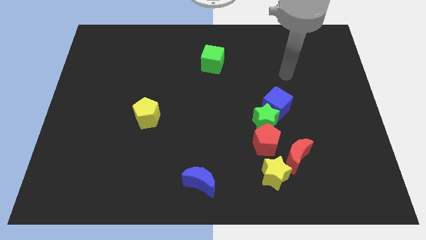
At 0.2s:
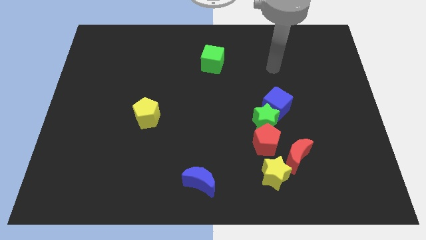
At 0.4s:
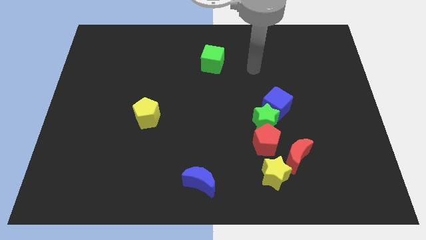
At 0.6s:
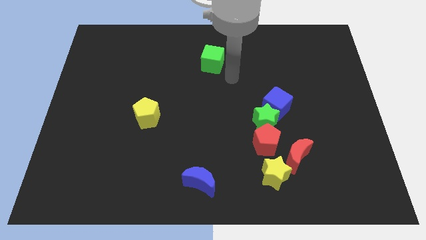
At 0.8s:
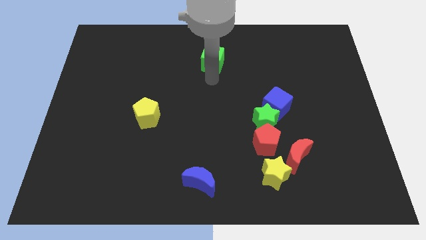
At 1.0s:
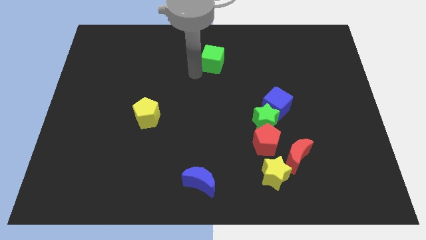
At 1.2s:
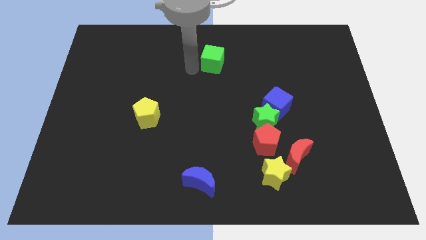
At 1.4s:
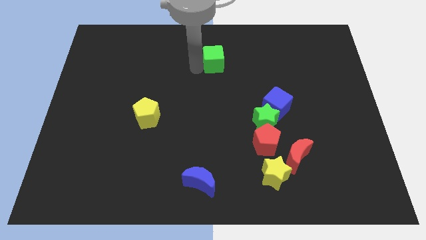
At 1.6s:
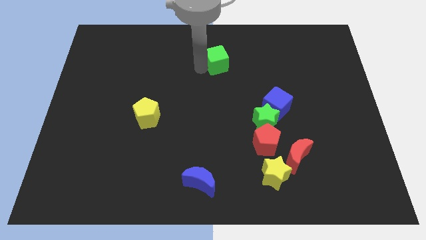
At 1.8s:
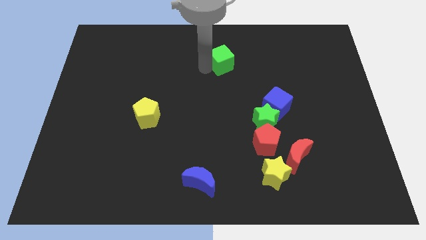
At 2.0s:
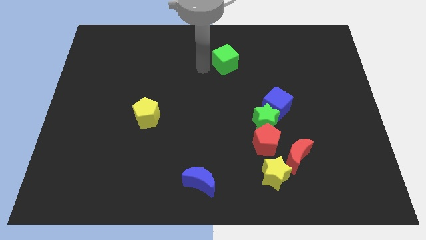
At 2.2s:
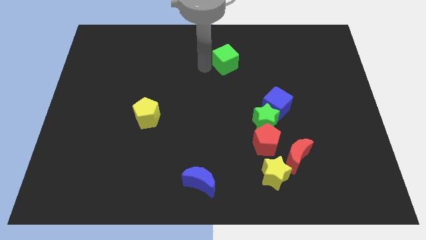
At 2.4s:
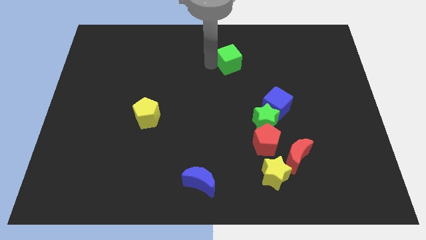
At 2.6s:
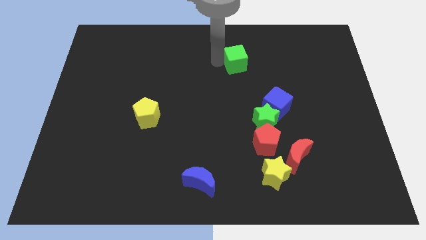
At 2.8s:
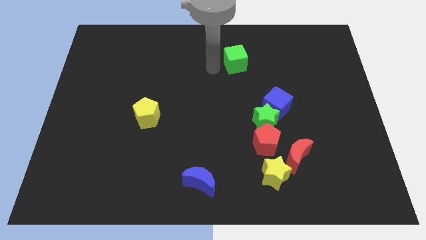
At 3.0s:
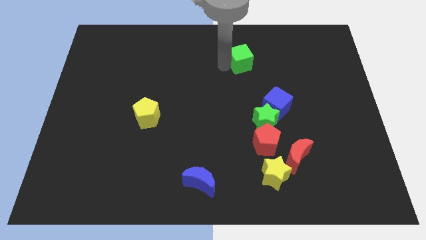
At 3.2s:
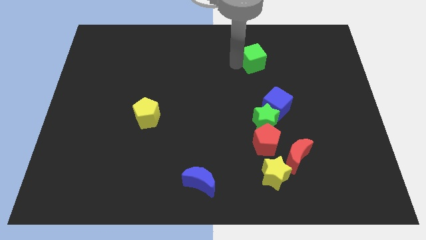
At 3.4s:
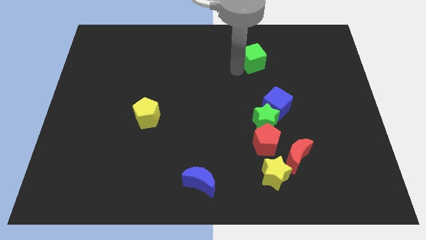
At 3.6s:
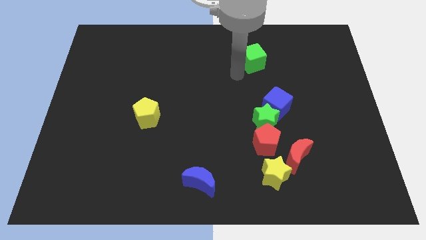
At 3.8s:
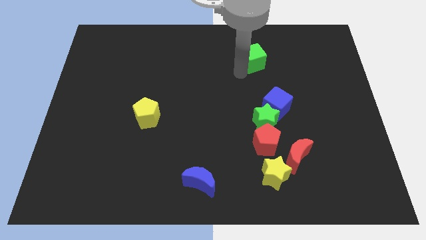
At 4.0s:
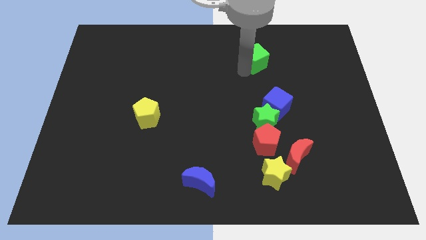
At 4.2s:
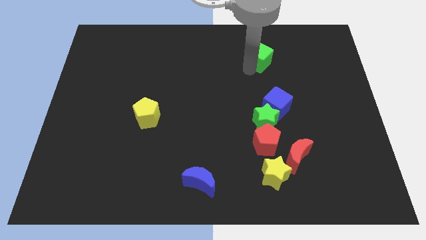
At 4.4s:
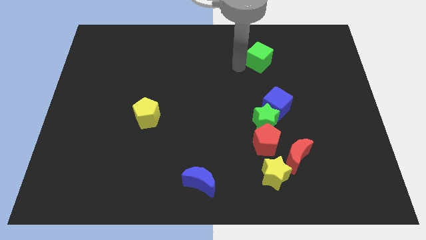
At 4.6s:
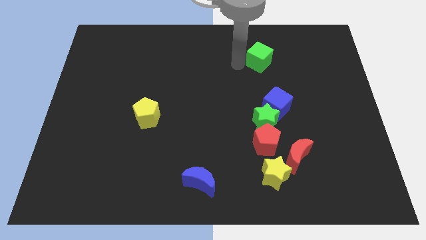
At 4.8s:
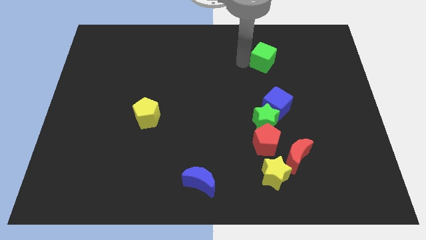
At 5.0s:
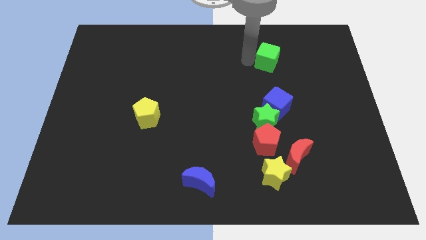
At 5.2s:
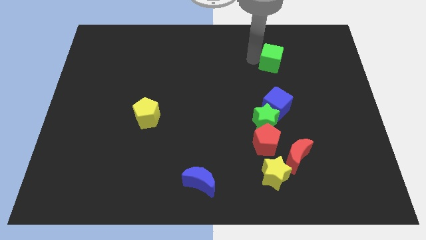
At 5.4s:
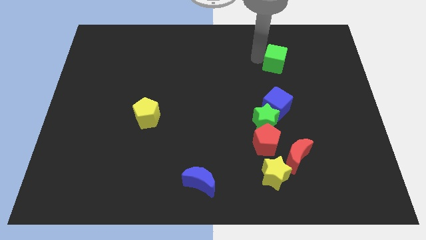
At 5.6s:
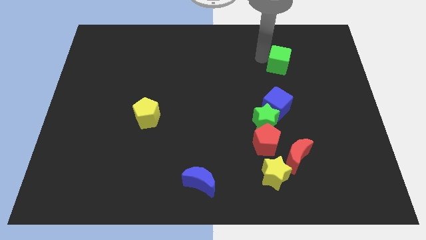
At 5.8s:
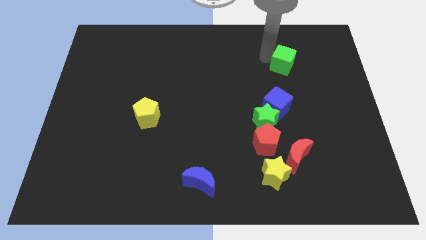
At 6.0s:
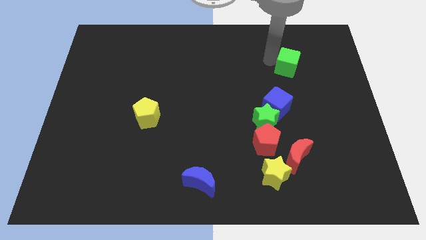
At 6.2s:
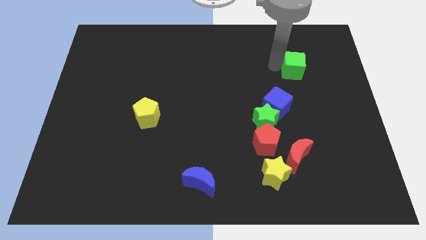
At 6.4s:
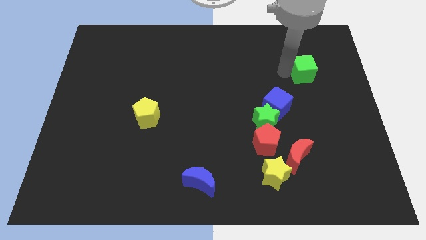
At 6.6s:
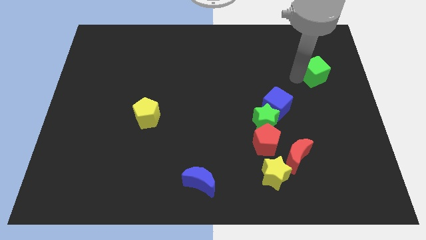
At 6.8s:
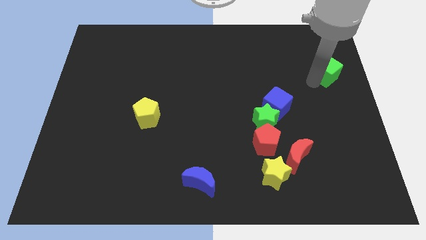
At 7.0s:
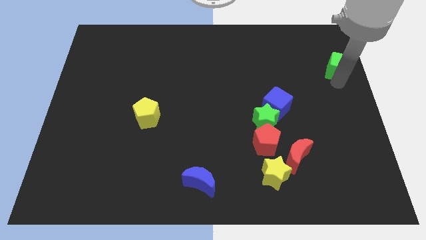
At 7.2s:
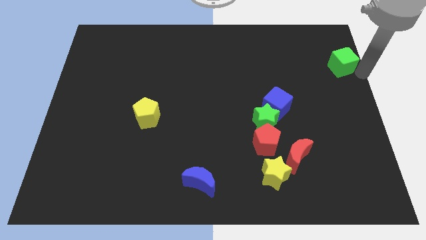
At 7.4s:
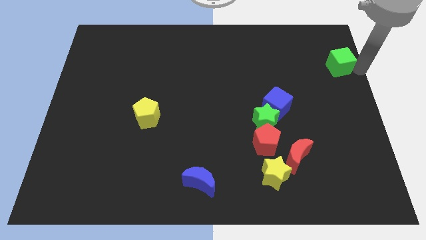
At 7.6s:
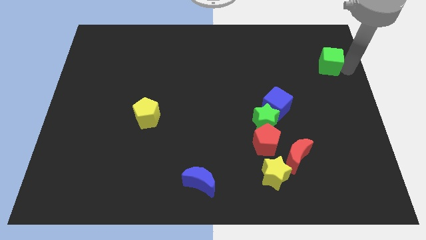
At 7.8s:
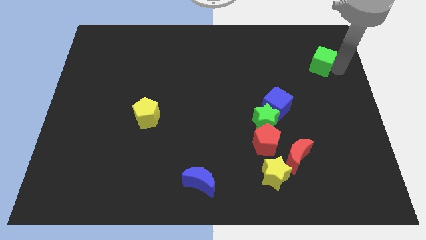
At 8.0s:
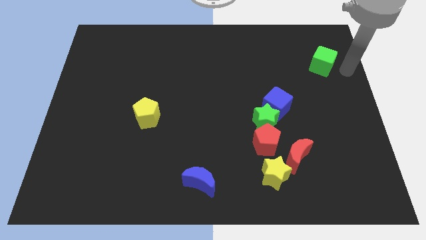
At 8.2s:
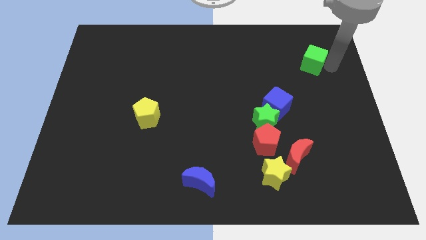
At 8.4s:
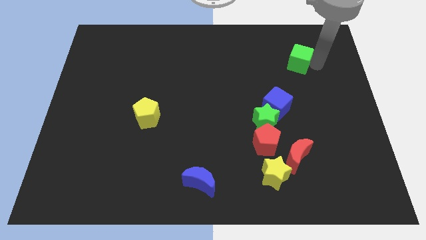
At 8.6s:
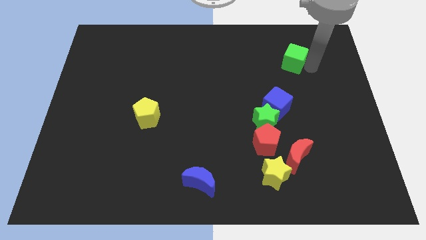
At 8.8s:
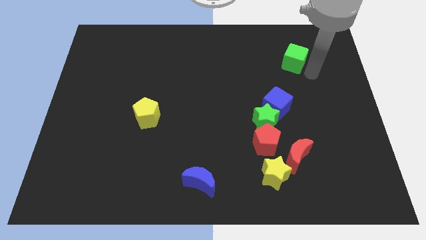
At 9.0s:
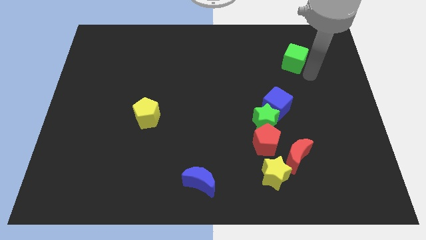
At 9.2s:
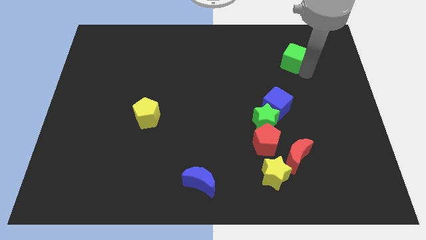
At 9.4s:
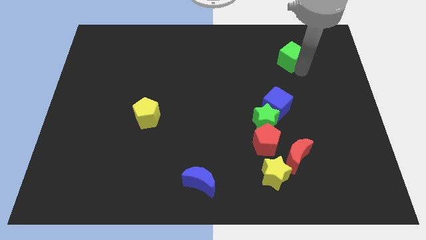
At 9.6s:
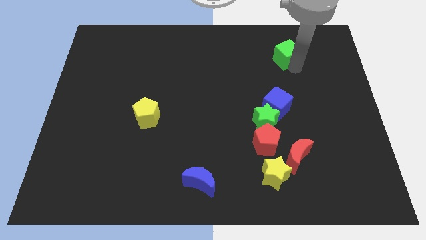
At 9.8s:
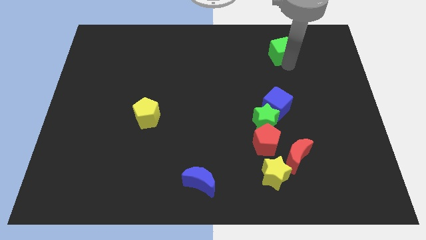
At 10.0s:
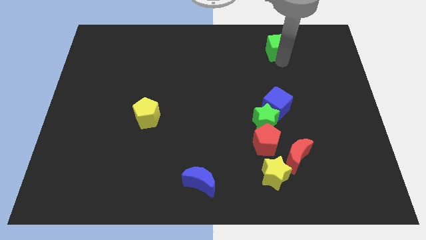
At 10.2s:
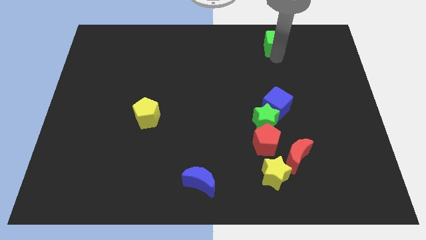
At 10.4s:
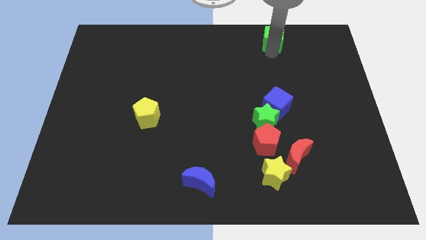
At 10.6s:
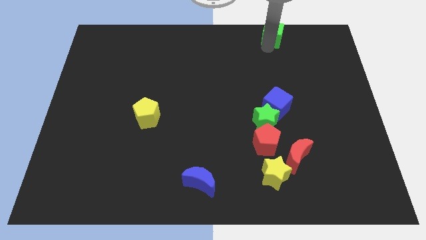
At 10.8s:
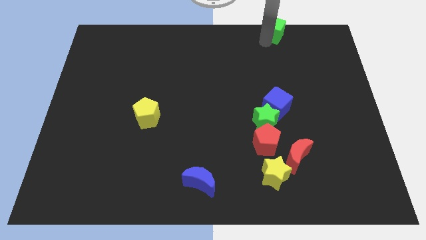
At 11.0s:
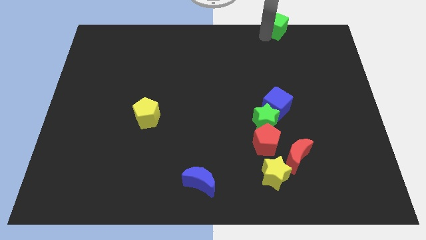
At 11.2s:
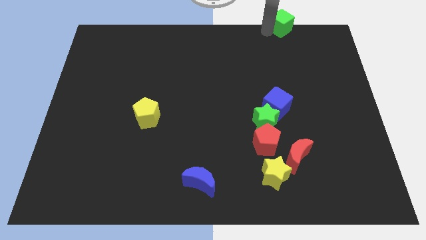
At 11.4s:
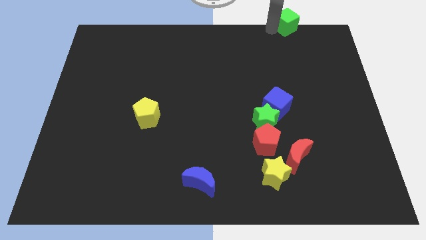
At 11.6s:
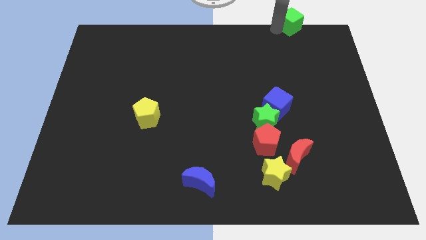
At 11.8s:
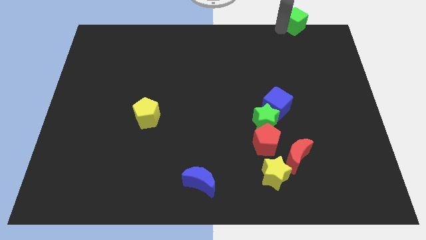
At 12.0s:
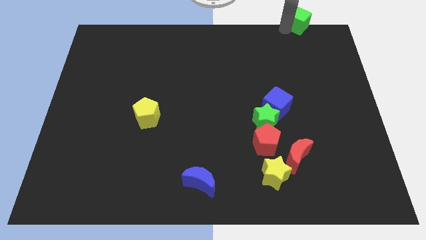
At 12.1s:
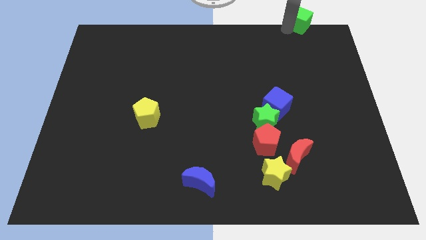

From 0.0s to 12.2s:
slide the green cube to the top right

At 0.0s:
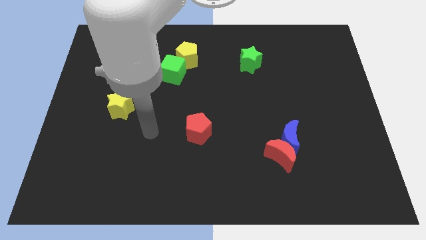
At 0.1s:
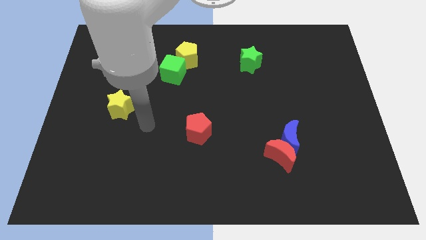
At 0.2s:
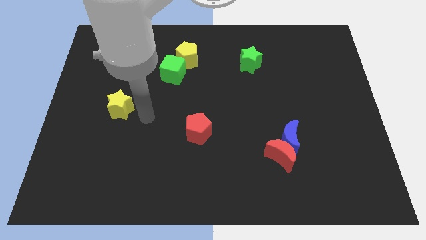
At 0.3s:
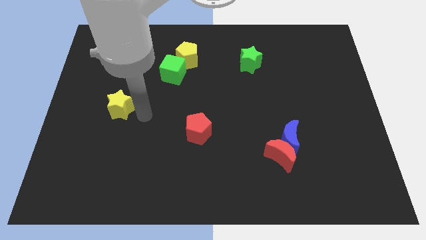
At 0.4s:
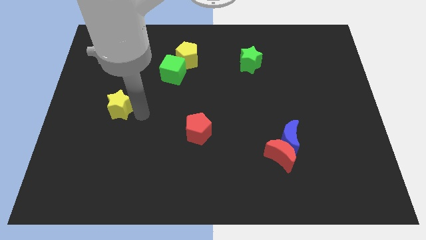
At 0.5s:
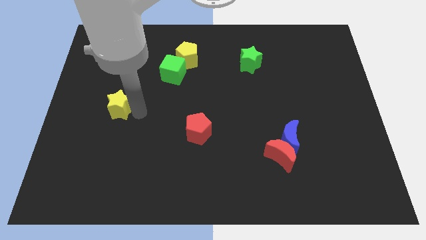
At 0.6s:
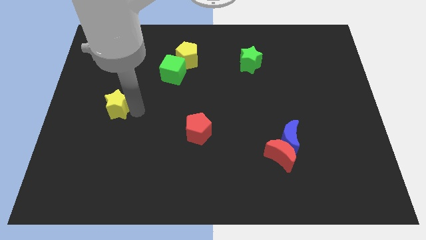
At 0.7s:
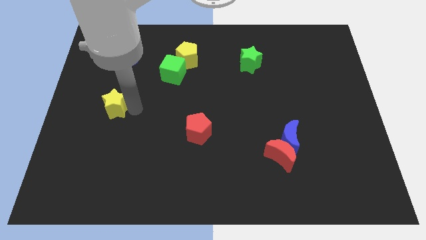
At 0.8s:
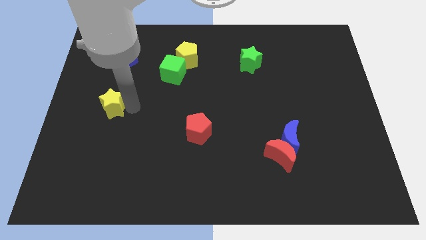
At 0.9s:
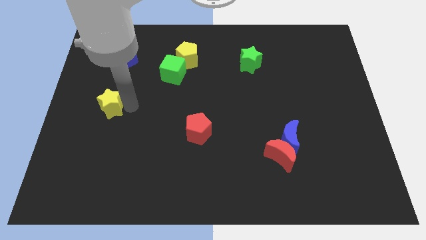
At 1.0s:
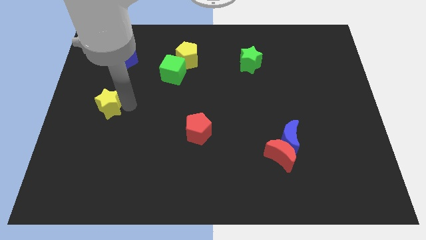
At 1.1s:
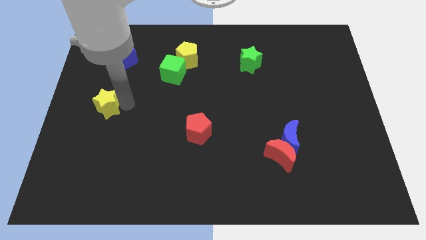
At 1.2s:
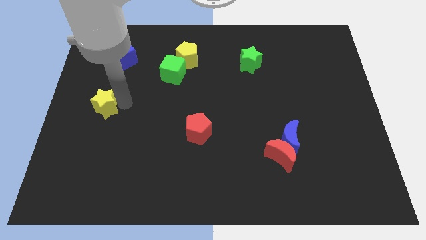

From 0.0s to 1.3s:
put the yellow star to the left side
